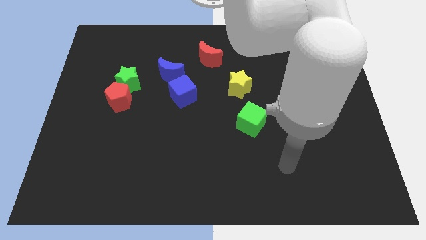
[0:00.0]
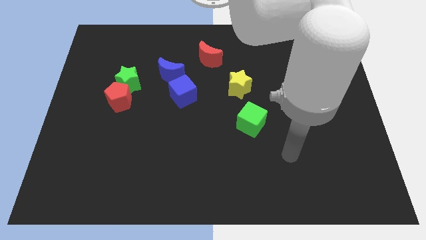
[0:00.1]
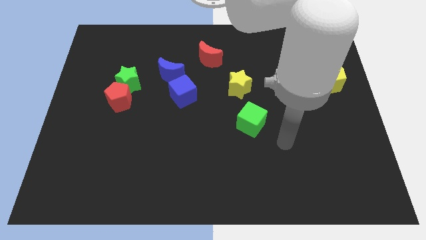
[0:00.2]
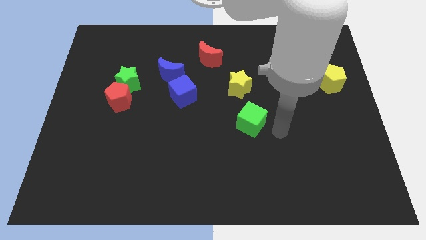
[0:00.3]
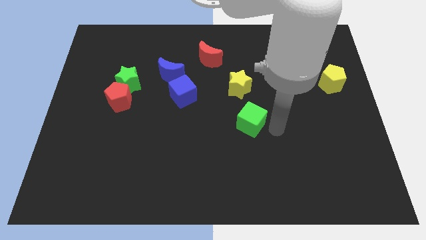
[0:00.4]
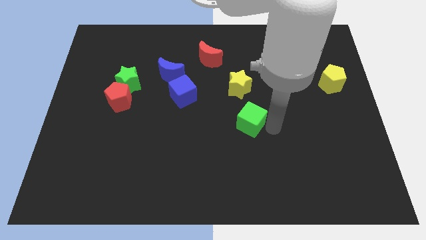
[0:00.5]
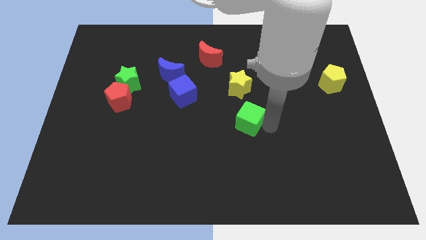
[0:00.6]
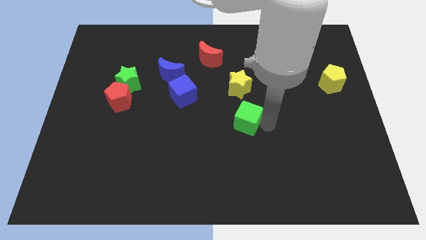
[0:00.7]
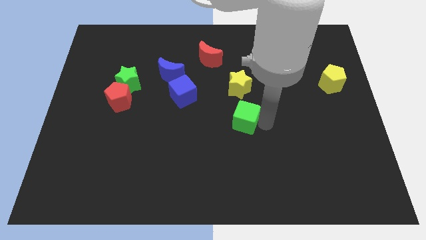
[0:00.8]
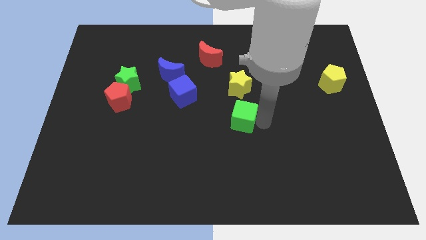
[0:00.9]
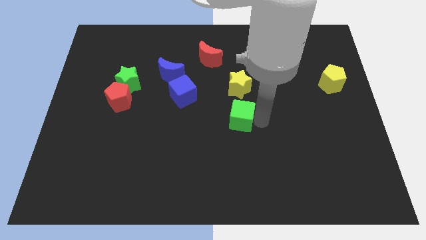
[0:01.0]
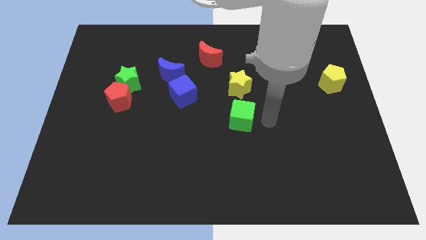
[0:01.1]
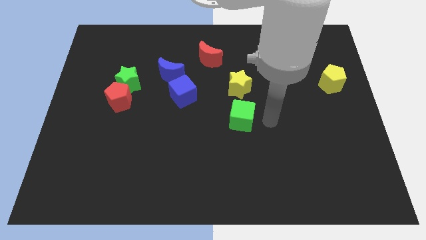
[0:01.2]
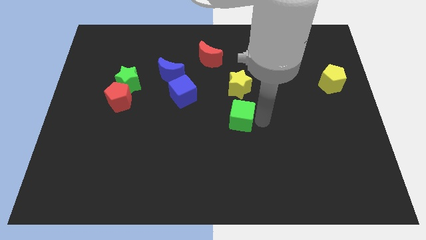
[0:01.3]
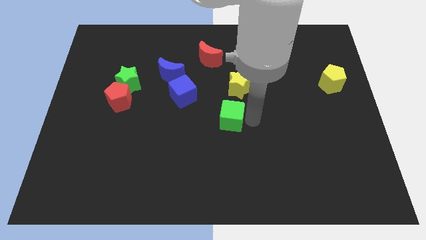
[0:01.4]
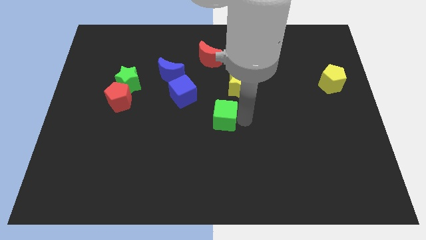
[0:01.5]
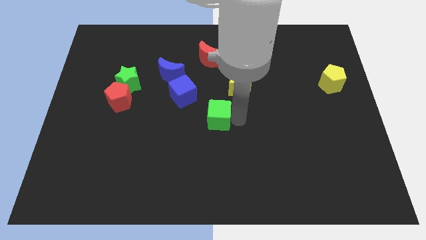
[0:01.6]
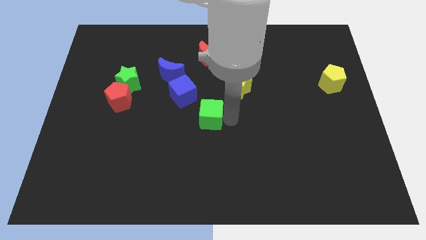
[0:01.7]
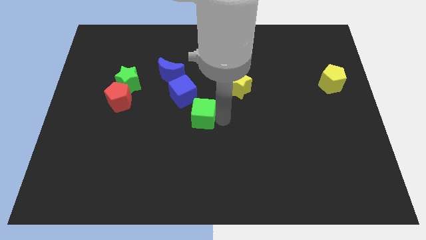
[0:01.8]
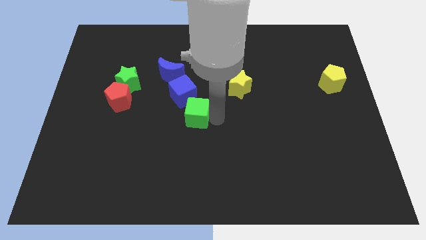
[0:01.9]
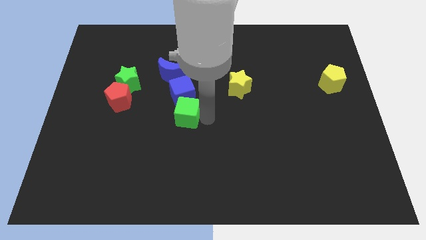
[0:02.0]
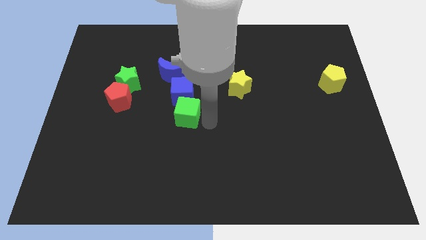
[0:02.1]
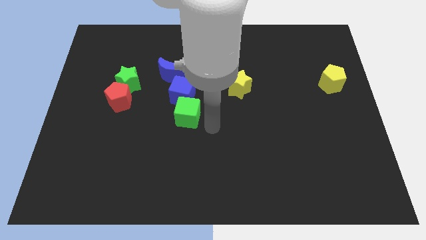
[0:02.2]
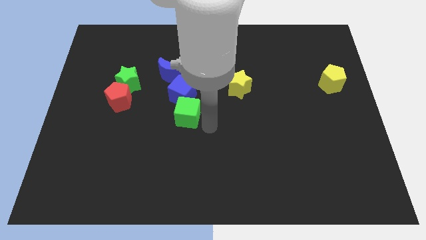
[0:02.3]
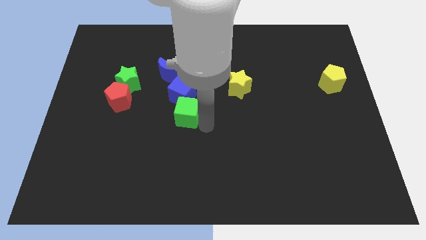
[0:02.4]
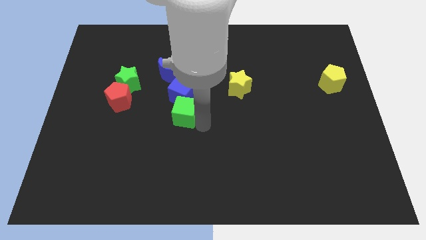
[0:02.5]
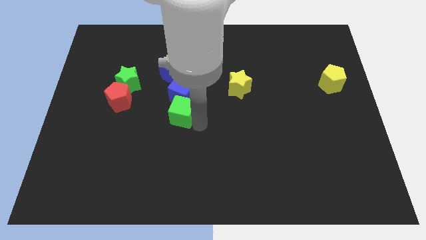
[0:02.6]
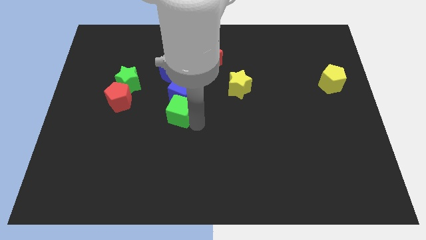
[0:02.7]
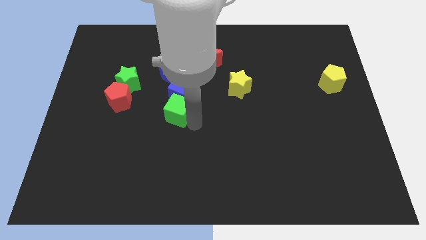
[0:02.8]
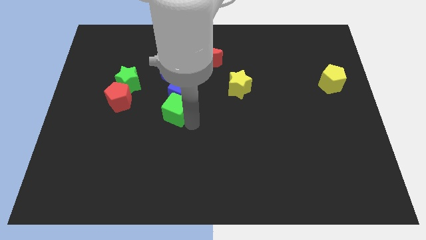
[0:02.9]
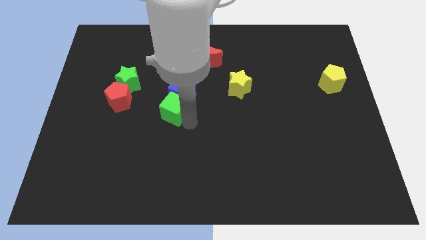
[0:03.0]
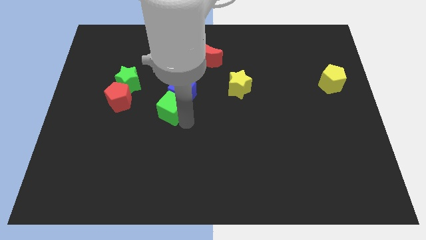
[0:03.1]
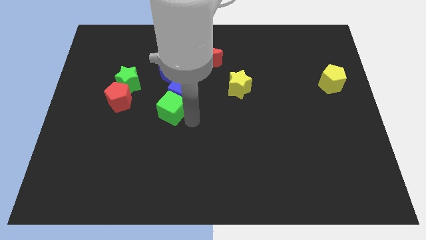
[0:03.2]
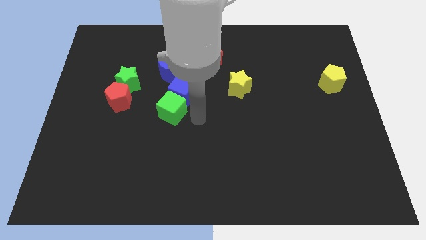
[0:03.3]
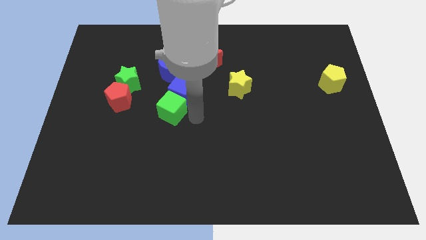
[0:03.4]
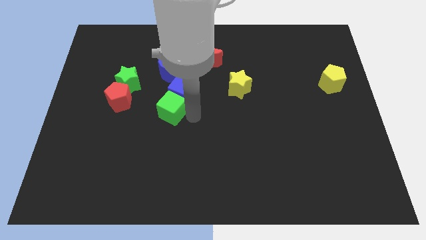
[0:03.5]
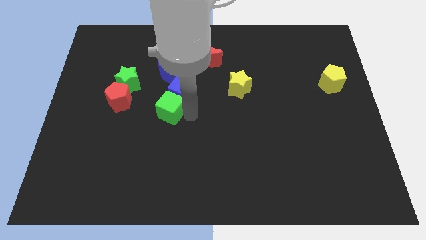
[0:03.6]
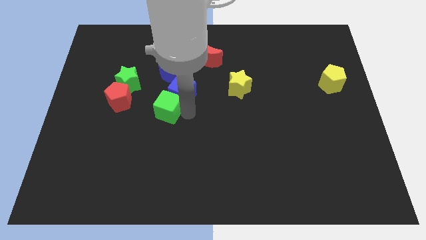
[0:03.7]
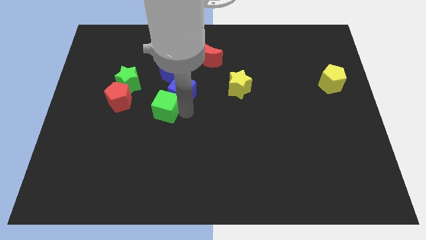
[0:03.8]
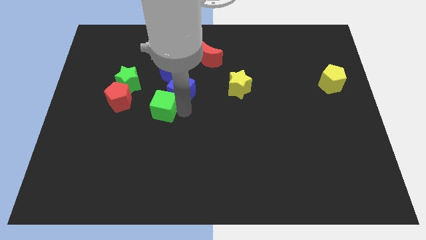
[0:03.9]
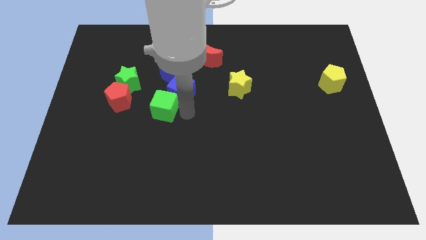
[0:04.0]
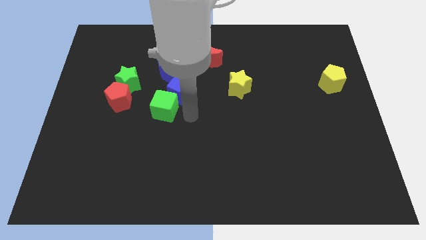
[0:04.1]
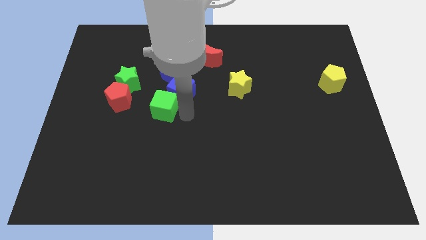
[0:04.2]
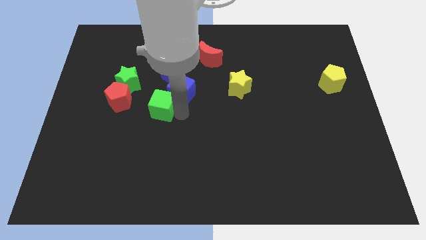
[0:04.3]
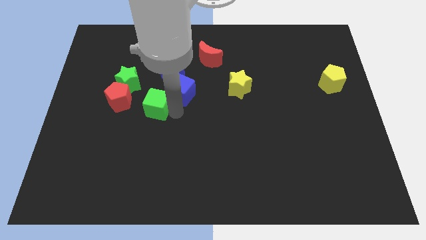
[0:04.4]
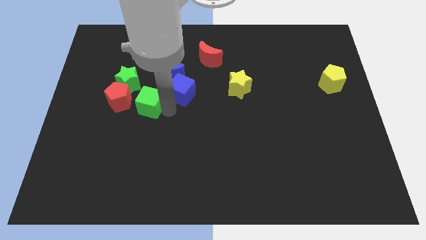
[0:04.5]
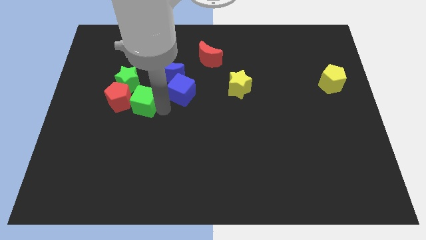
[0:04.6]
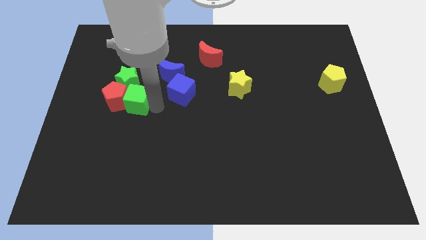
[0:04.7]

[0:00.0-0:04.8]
push the green cube next to the red pentagon

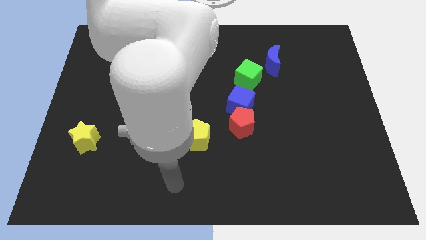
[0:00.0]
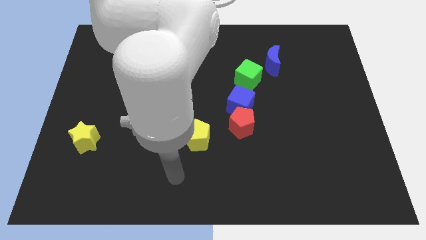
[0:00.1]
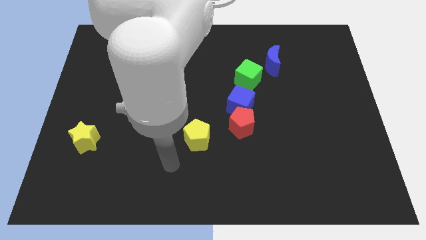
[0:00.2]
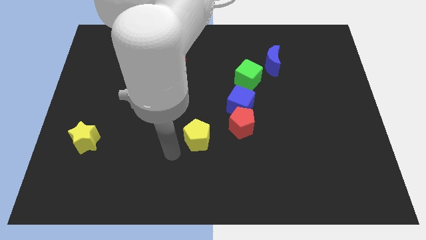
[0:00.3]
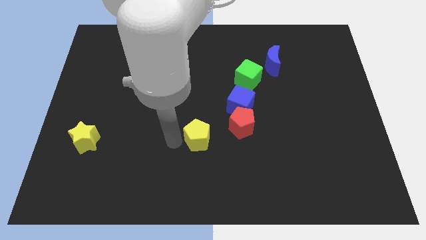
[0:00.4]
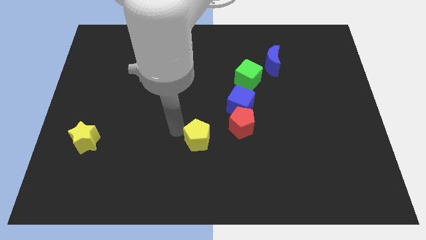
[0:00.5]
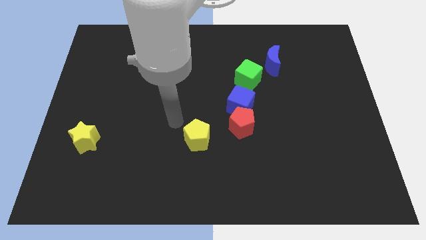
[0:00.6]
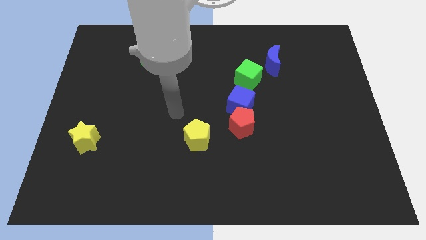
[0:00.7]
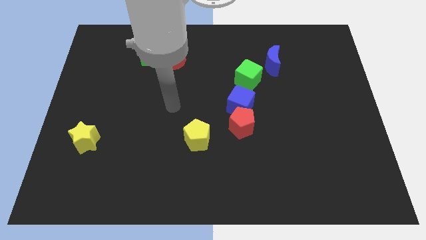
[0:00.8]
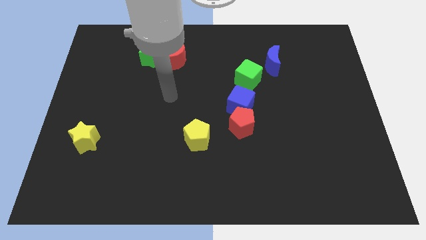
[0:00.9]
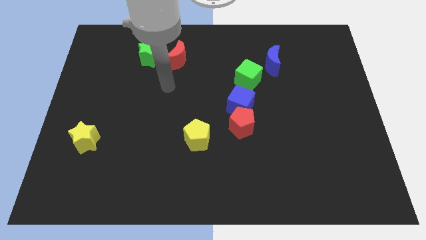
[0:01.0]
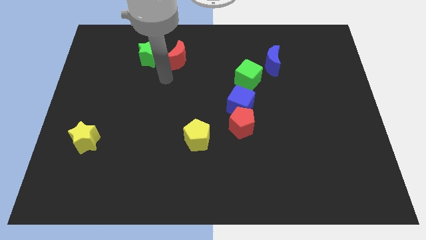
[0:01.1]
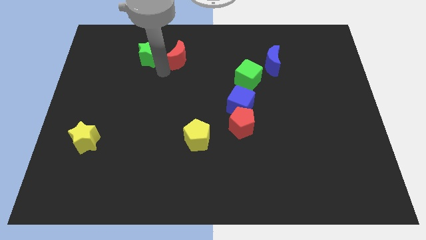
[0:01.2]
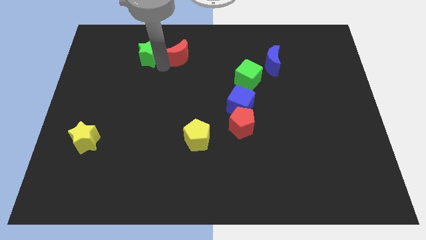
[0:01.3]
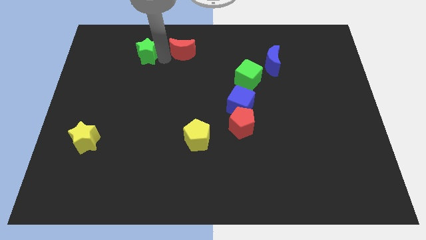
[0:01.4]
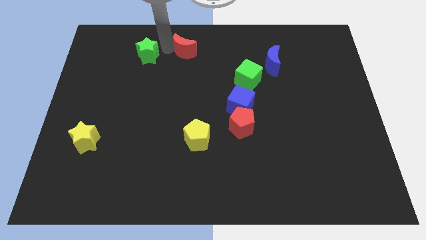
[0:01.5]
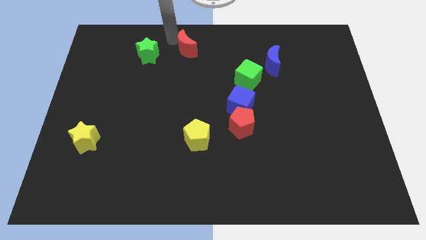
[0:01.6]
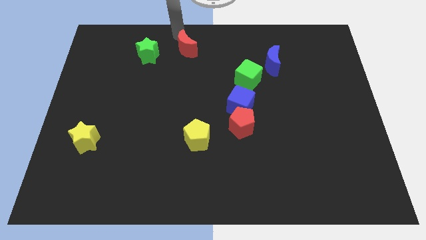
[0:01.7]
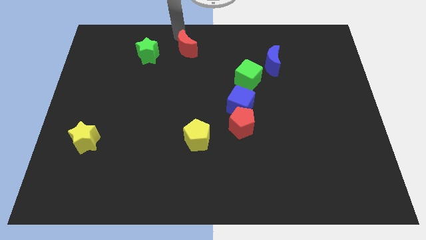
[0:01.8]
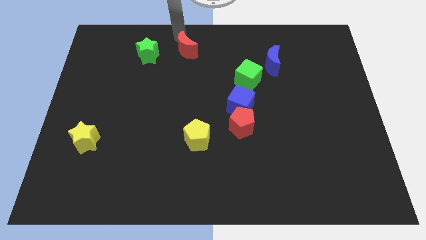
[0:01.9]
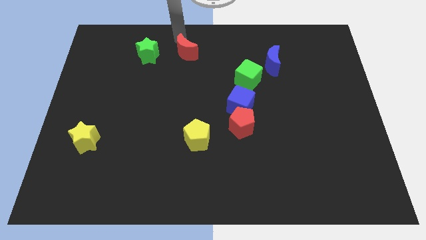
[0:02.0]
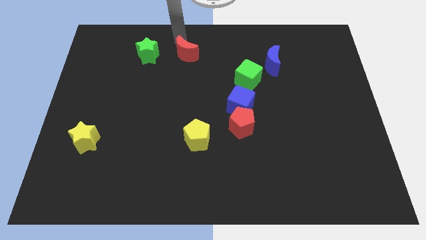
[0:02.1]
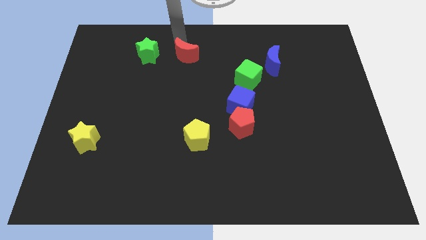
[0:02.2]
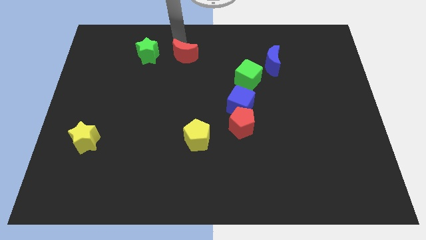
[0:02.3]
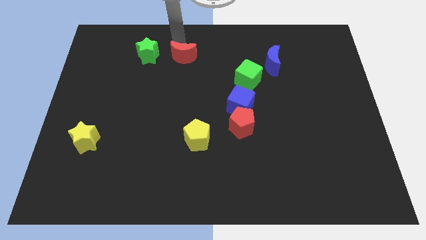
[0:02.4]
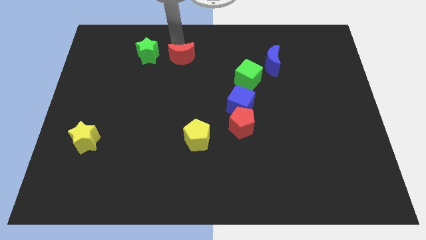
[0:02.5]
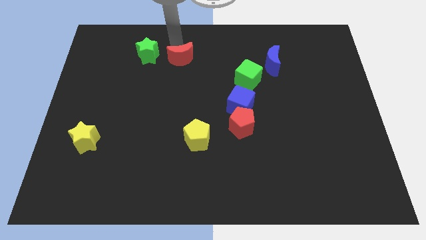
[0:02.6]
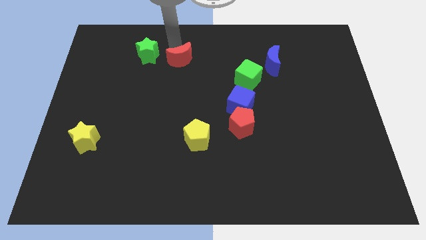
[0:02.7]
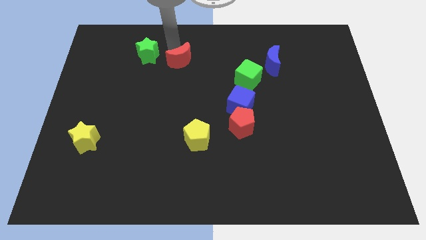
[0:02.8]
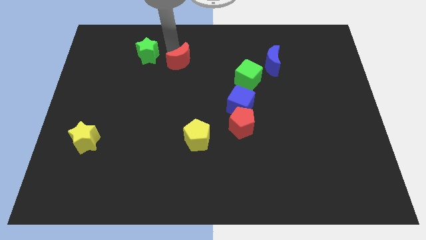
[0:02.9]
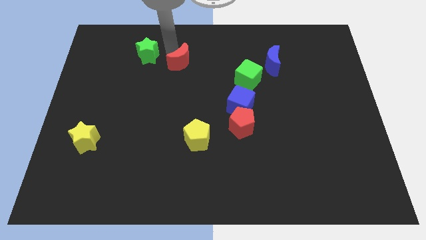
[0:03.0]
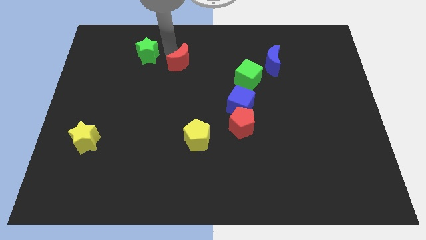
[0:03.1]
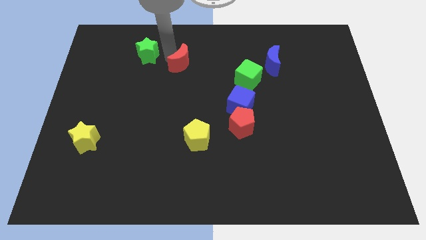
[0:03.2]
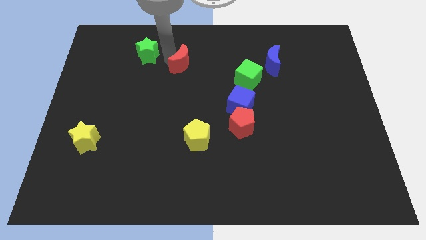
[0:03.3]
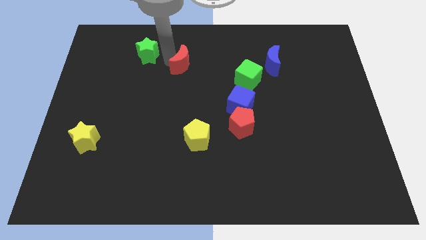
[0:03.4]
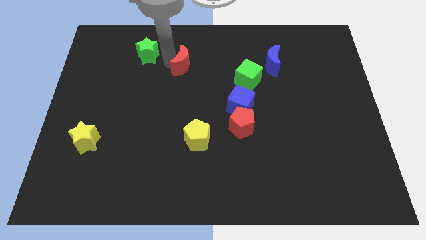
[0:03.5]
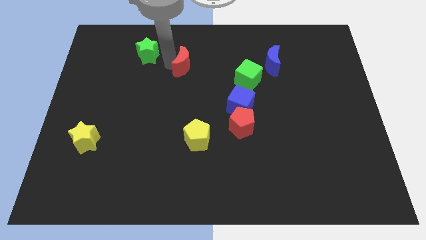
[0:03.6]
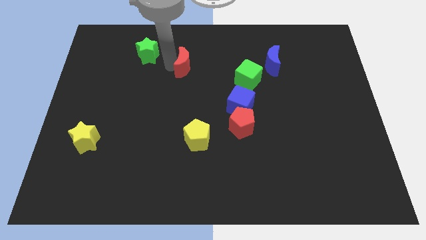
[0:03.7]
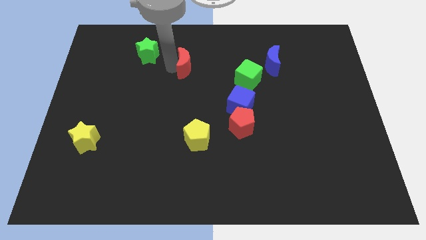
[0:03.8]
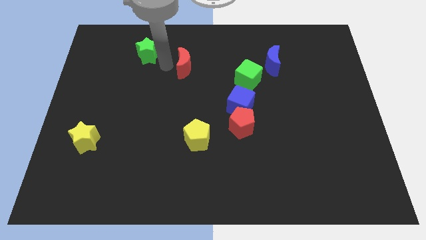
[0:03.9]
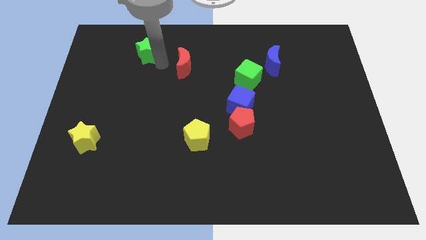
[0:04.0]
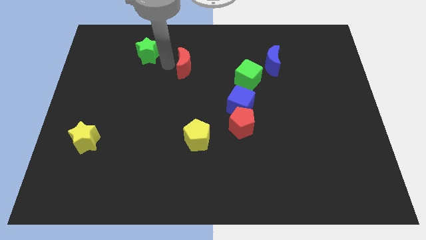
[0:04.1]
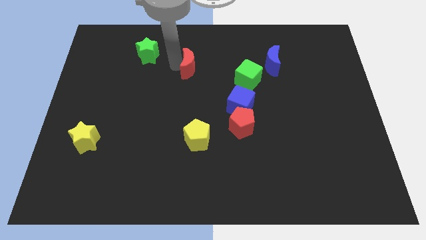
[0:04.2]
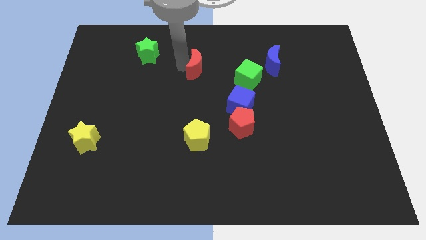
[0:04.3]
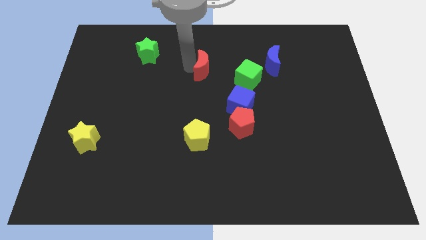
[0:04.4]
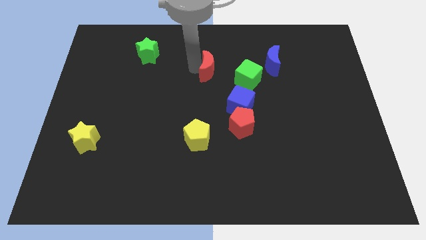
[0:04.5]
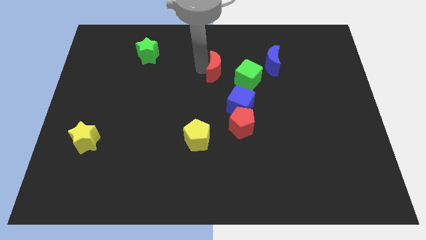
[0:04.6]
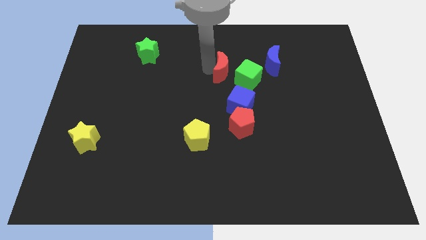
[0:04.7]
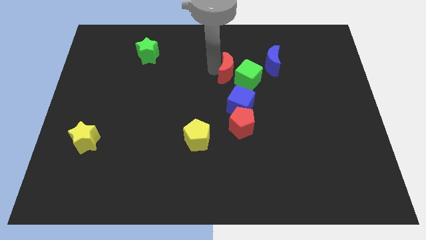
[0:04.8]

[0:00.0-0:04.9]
move the red moon close to the green cube
